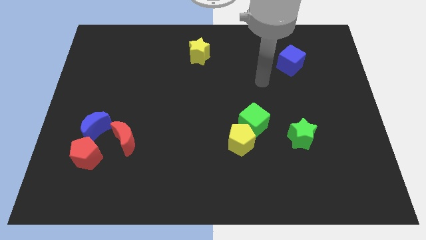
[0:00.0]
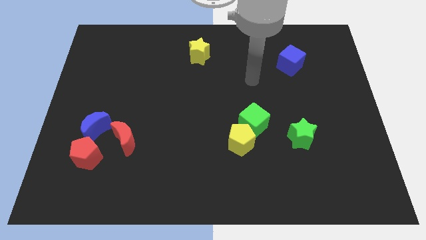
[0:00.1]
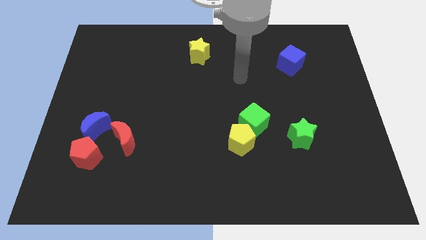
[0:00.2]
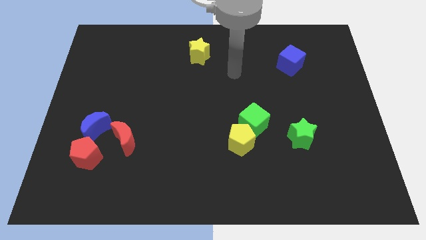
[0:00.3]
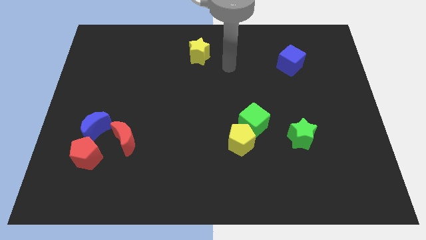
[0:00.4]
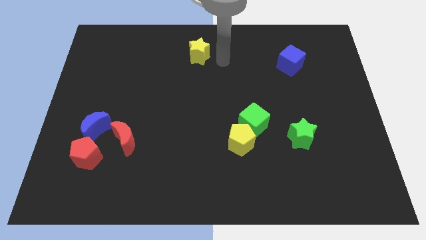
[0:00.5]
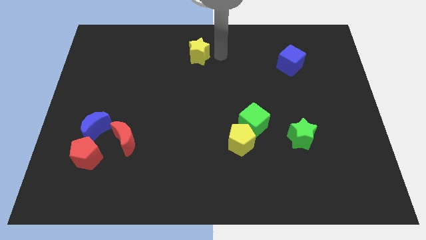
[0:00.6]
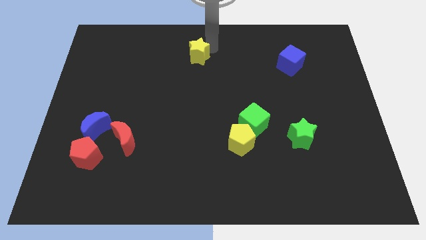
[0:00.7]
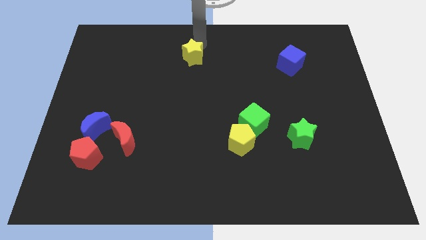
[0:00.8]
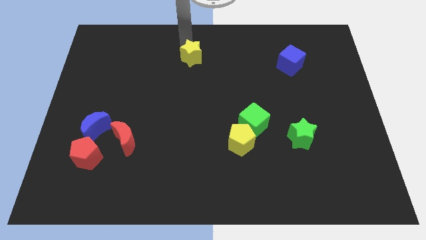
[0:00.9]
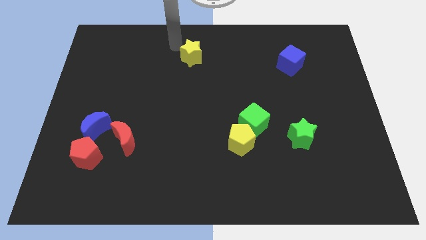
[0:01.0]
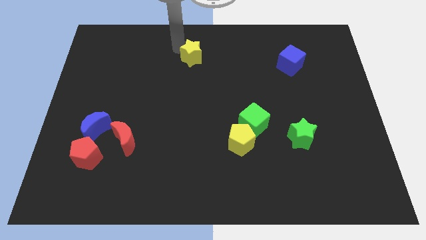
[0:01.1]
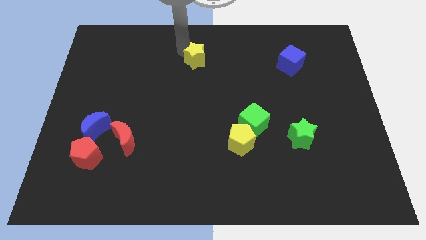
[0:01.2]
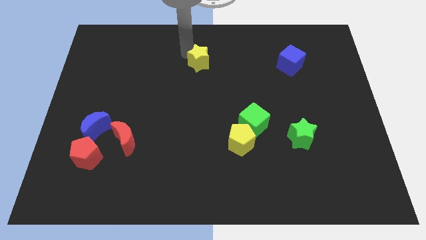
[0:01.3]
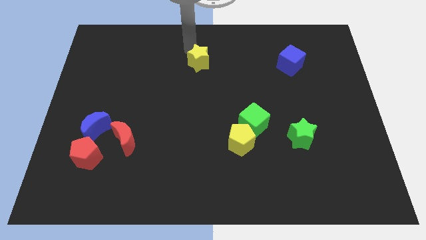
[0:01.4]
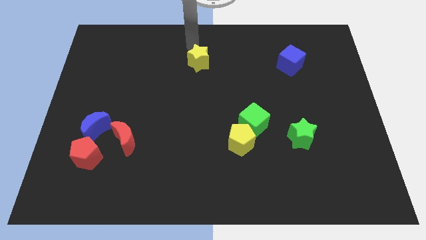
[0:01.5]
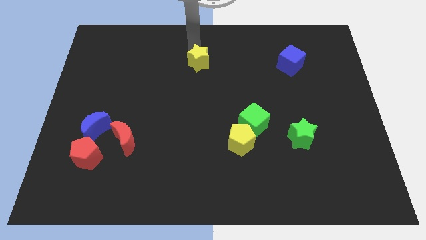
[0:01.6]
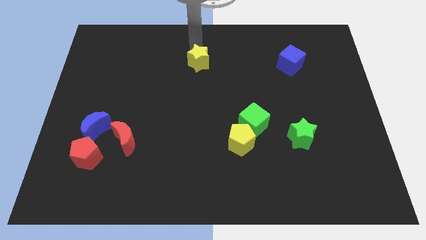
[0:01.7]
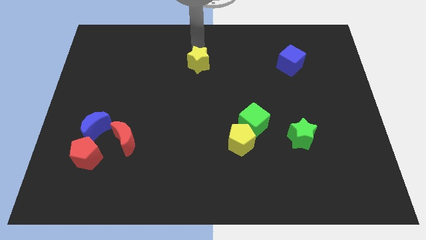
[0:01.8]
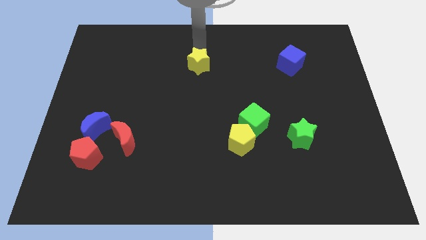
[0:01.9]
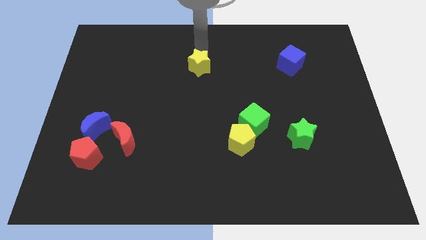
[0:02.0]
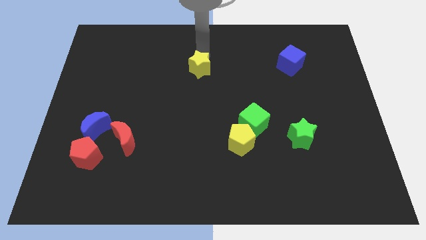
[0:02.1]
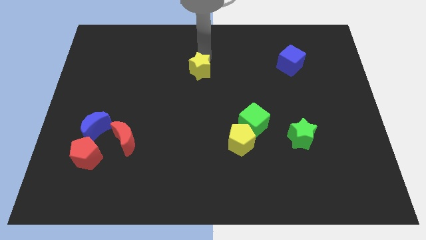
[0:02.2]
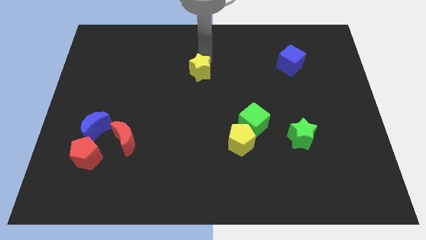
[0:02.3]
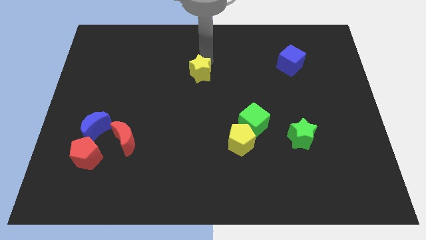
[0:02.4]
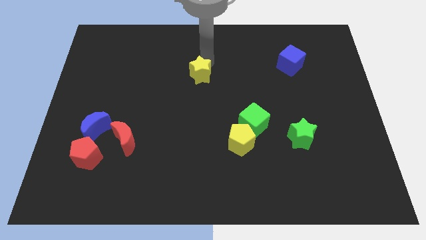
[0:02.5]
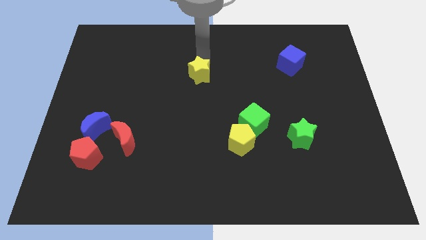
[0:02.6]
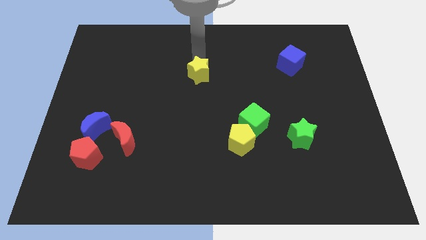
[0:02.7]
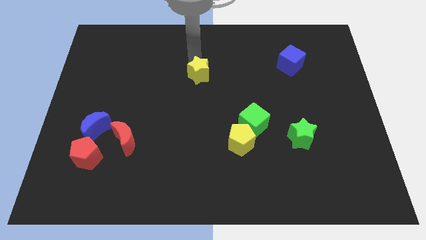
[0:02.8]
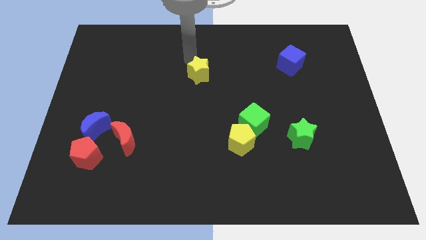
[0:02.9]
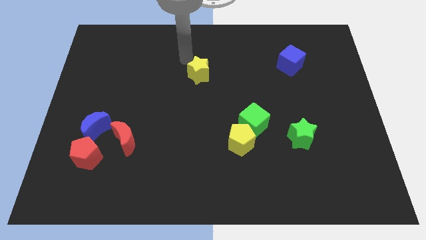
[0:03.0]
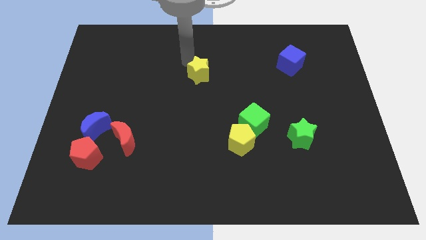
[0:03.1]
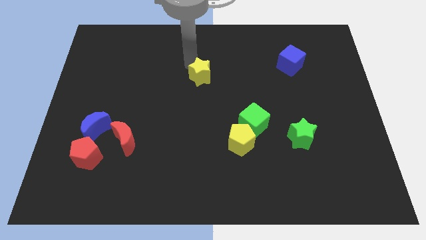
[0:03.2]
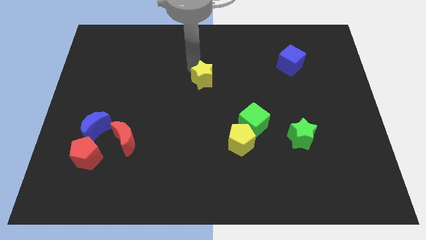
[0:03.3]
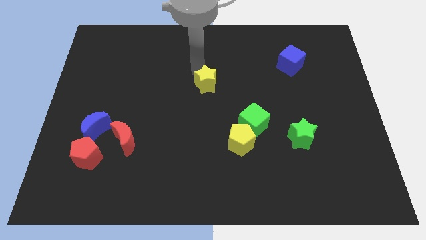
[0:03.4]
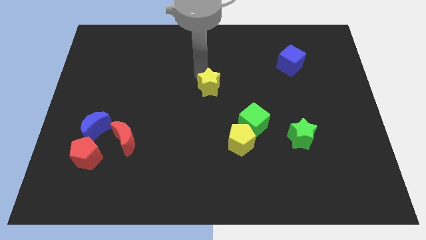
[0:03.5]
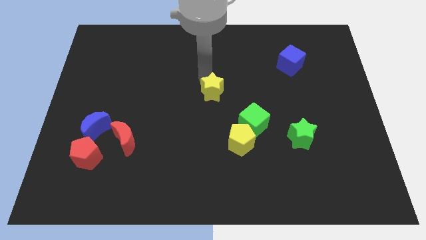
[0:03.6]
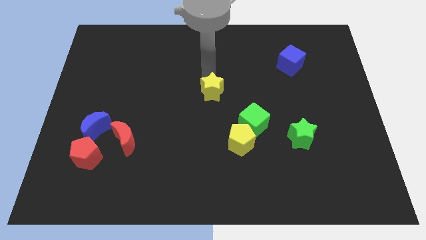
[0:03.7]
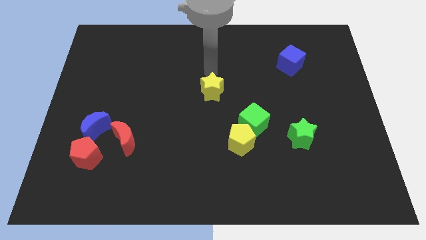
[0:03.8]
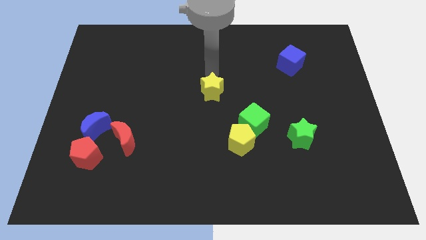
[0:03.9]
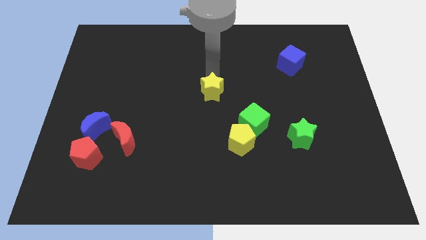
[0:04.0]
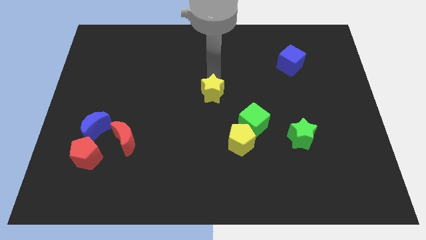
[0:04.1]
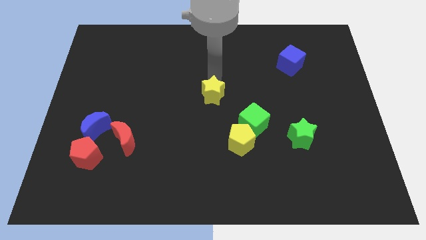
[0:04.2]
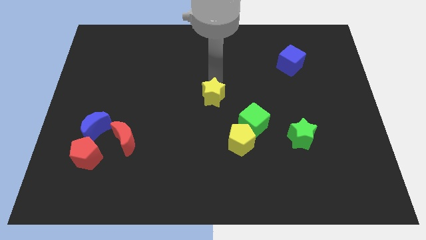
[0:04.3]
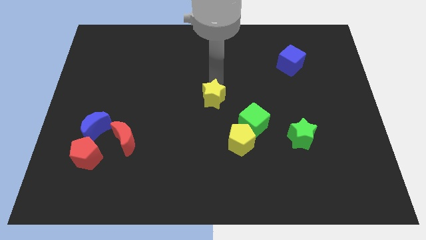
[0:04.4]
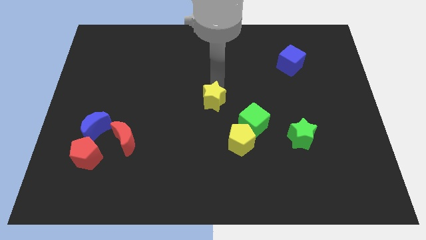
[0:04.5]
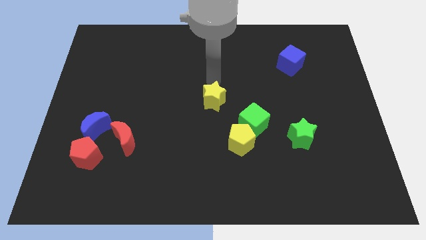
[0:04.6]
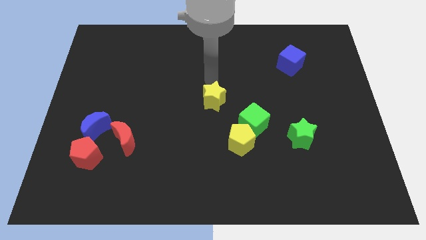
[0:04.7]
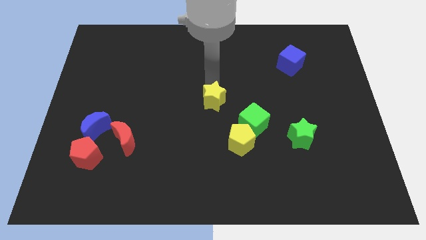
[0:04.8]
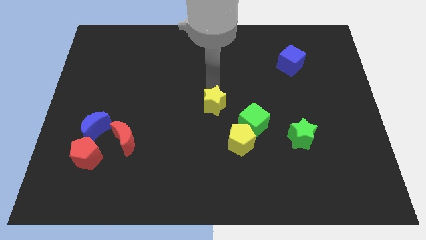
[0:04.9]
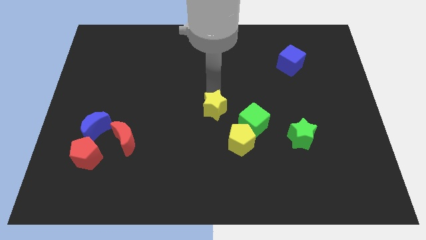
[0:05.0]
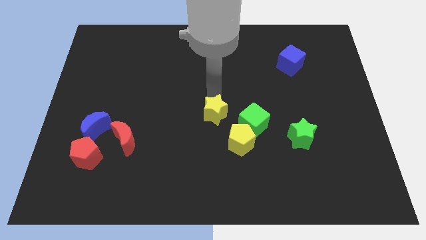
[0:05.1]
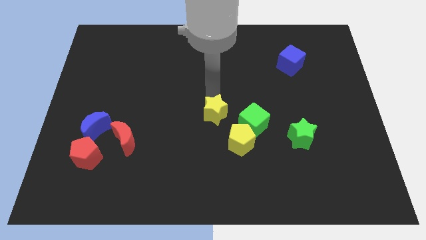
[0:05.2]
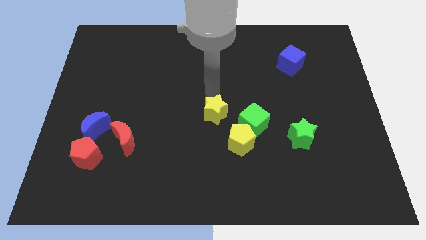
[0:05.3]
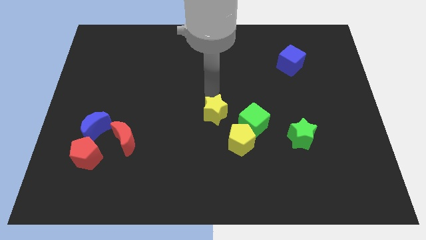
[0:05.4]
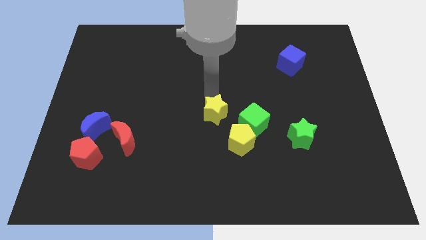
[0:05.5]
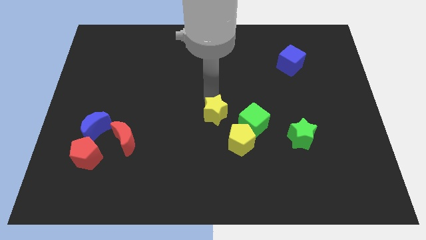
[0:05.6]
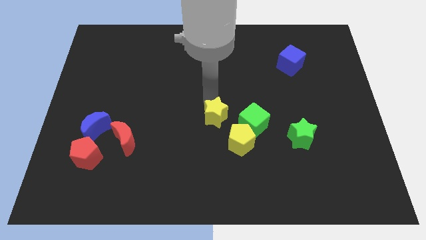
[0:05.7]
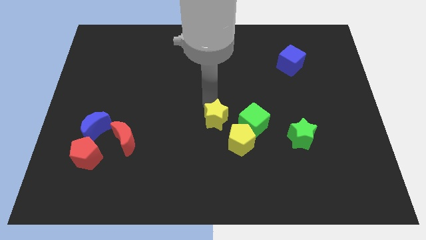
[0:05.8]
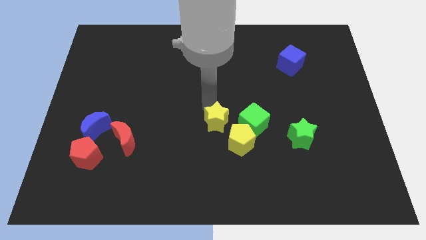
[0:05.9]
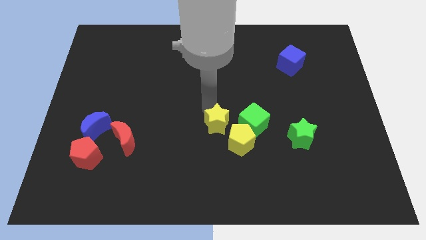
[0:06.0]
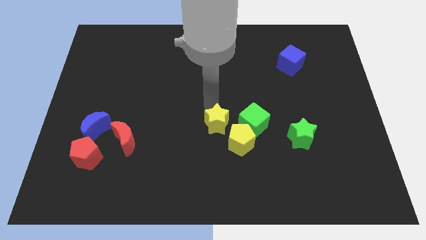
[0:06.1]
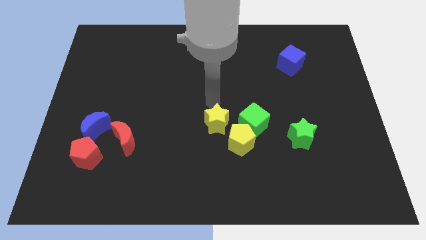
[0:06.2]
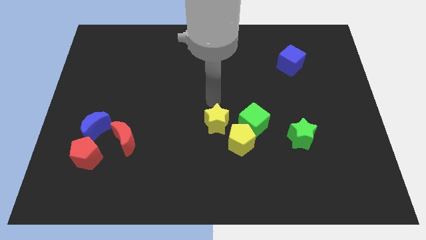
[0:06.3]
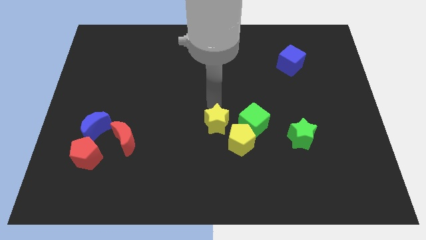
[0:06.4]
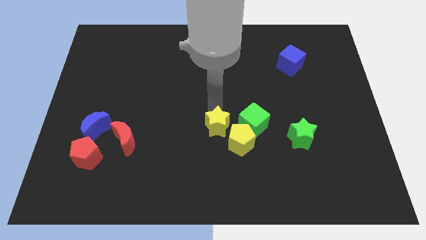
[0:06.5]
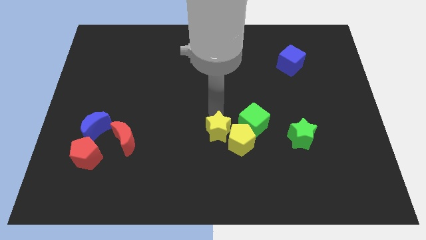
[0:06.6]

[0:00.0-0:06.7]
move the yellow star diagonally down and to the left of the green cube

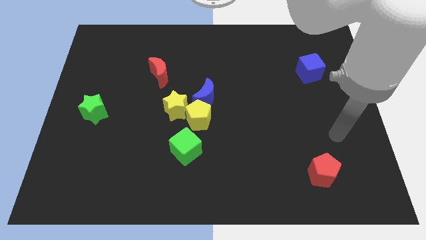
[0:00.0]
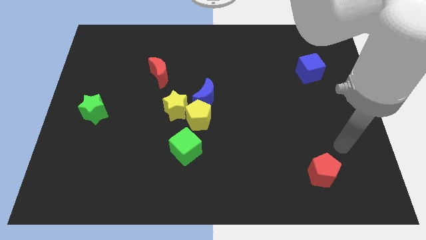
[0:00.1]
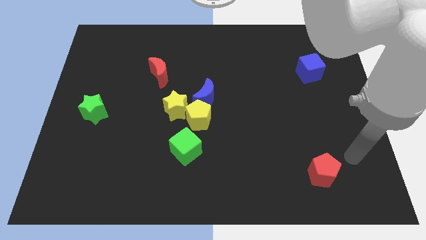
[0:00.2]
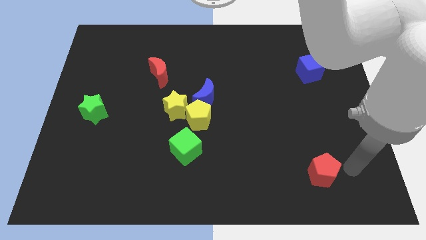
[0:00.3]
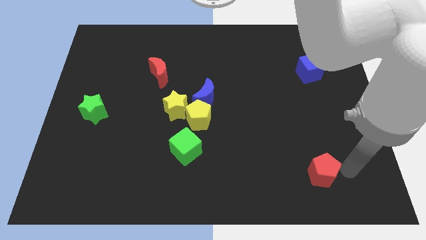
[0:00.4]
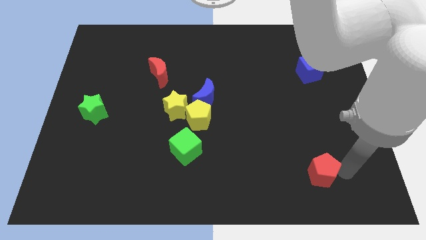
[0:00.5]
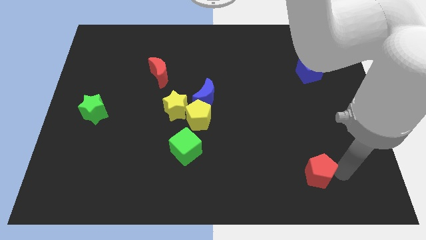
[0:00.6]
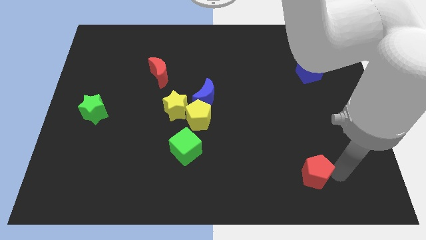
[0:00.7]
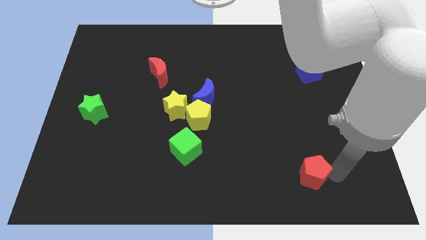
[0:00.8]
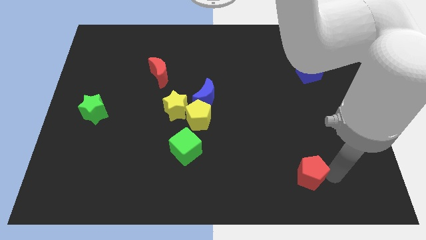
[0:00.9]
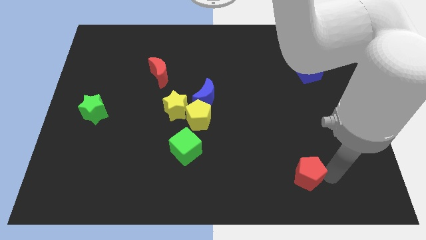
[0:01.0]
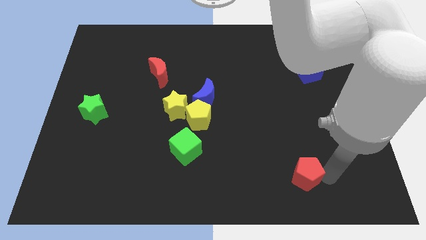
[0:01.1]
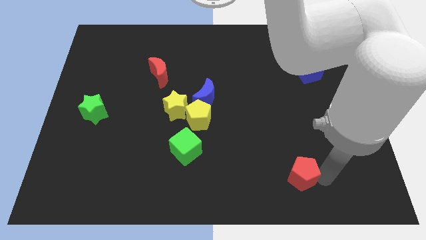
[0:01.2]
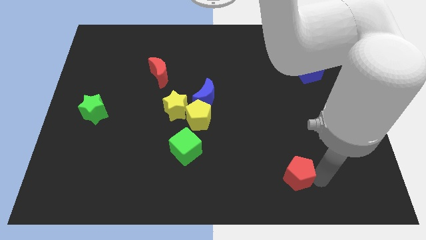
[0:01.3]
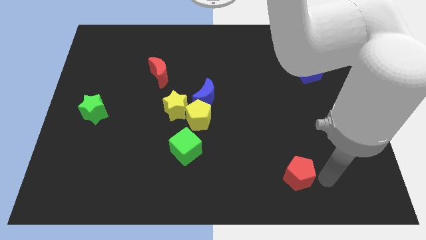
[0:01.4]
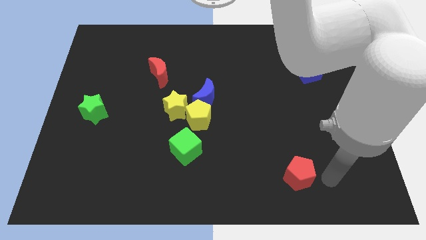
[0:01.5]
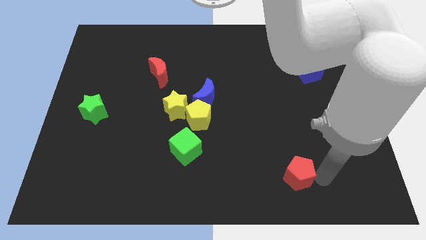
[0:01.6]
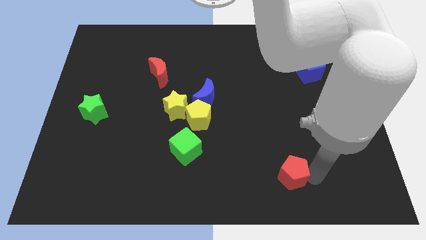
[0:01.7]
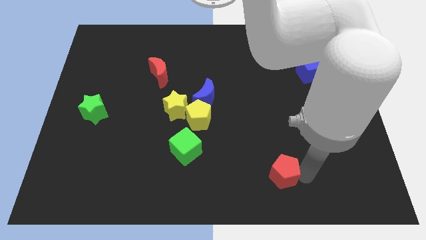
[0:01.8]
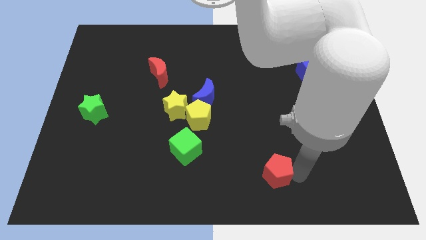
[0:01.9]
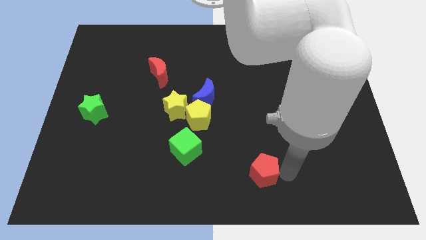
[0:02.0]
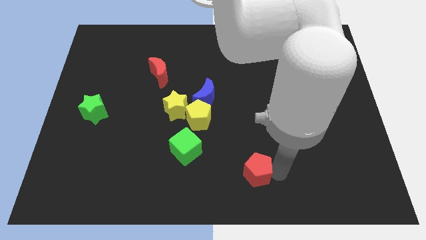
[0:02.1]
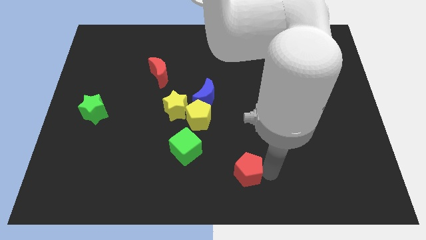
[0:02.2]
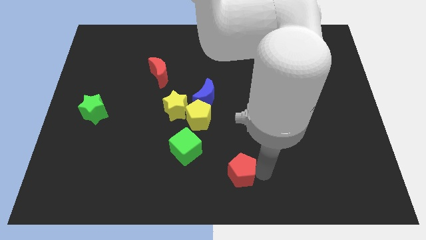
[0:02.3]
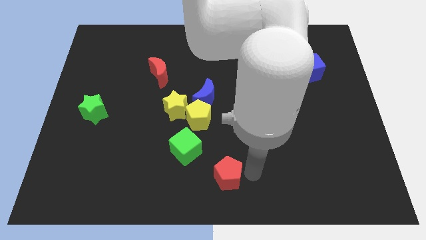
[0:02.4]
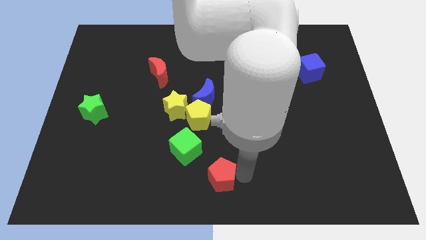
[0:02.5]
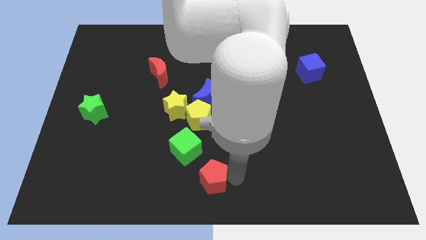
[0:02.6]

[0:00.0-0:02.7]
put the red pentagon below the yellow pentagon
